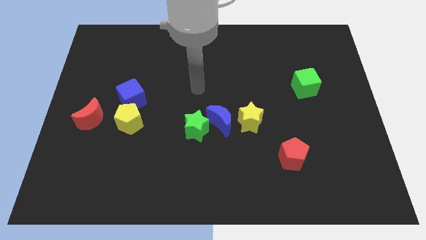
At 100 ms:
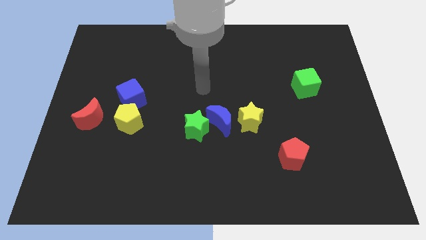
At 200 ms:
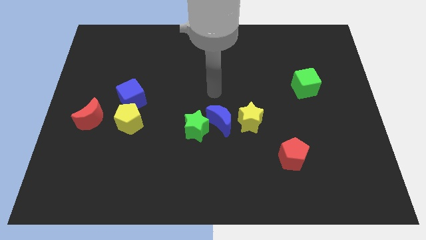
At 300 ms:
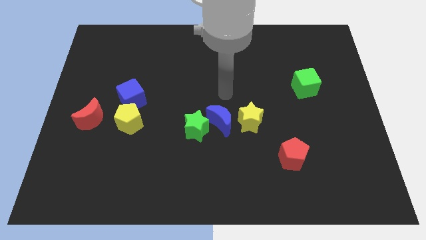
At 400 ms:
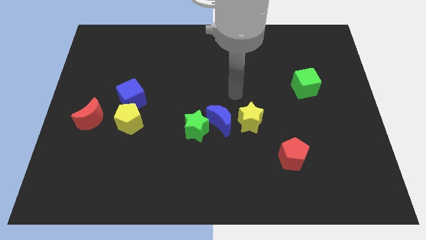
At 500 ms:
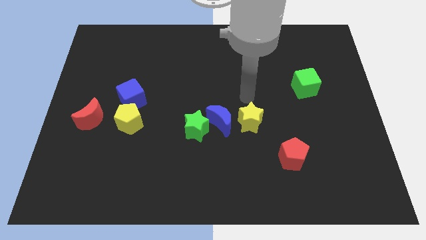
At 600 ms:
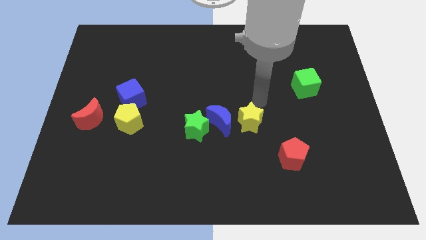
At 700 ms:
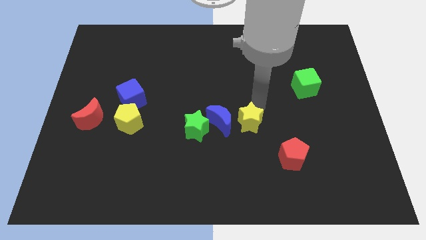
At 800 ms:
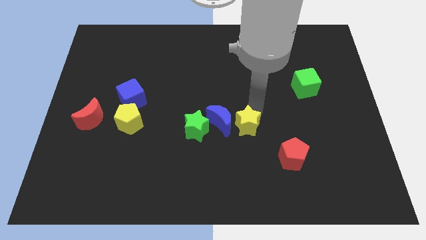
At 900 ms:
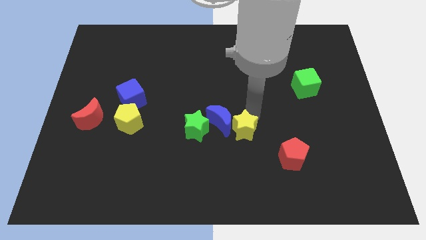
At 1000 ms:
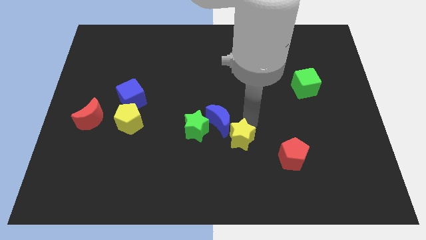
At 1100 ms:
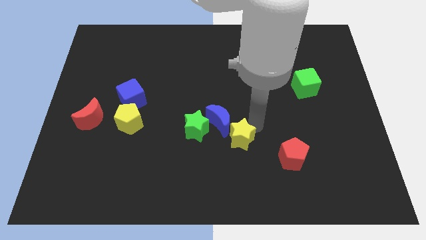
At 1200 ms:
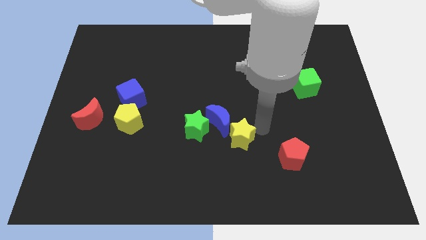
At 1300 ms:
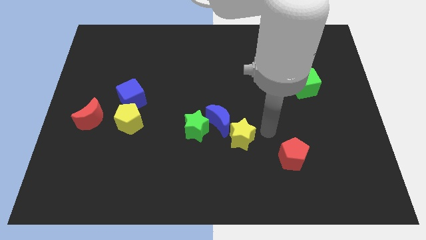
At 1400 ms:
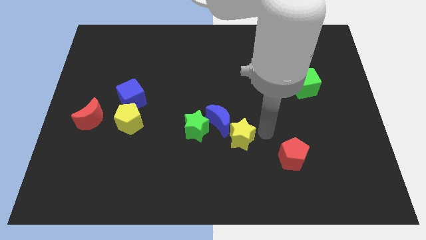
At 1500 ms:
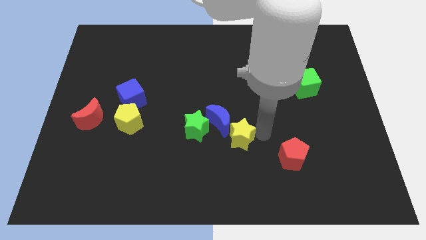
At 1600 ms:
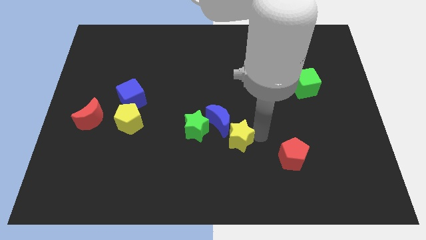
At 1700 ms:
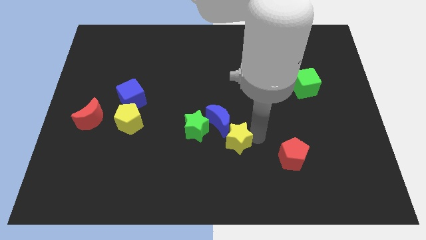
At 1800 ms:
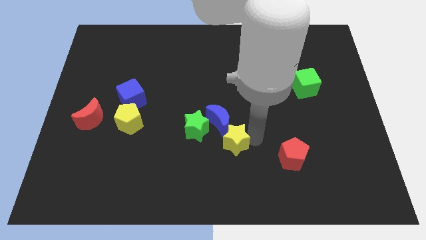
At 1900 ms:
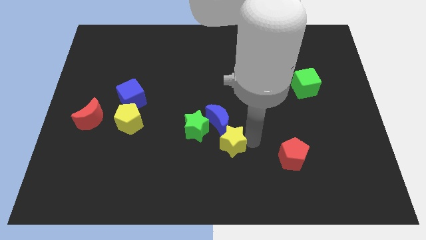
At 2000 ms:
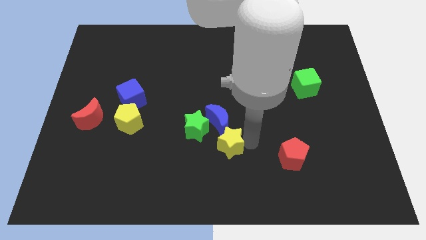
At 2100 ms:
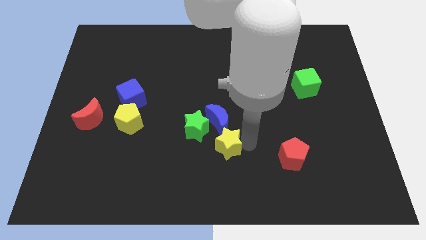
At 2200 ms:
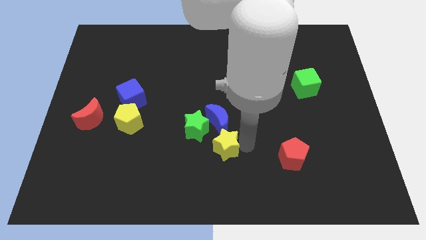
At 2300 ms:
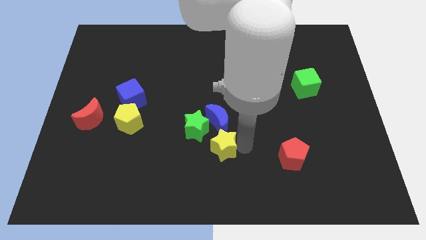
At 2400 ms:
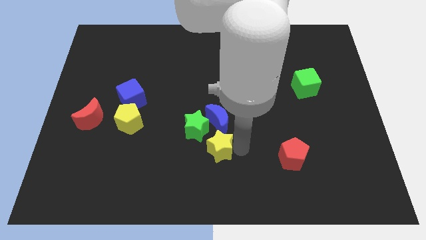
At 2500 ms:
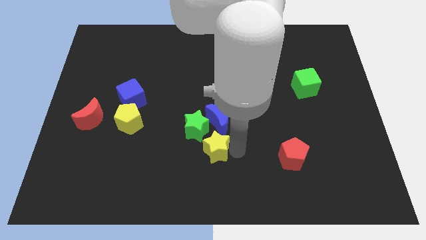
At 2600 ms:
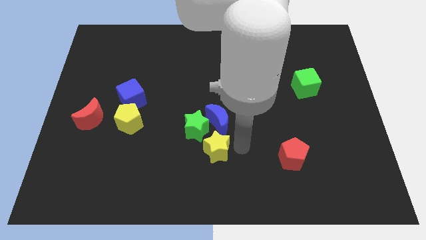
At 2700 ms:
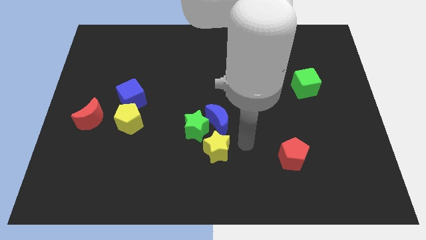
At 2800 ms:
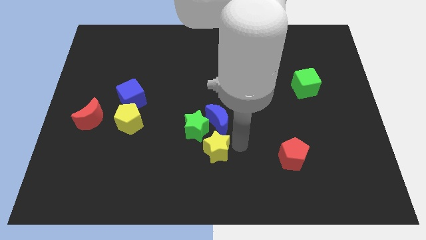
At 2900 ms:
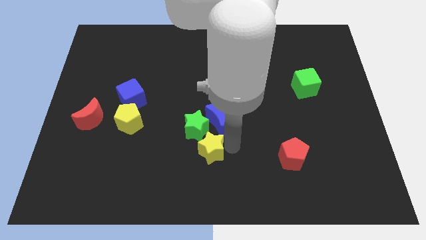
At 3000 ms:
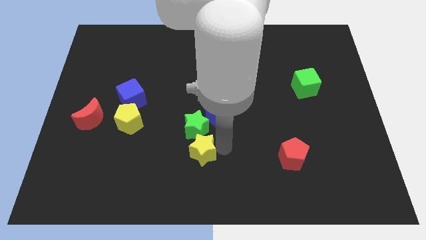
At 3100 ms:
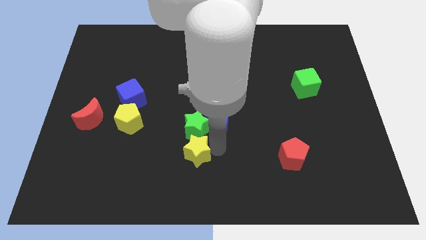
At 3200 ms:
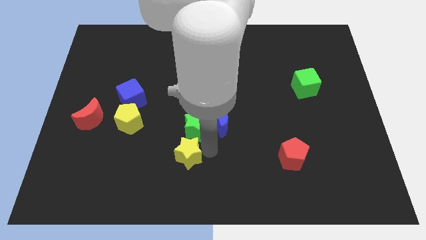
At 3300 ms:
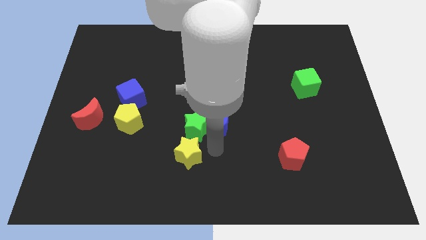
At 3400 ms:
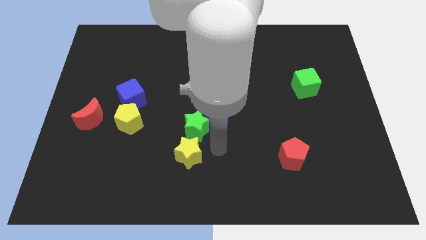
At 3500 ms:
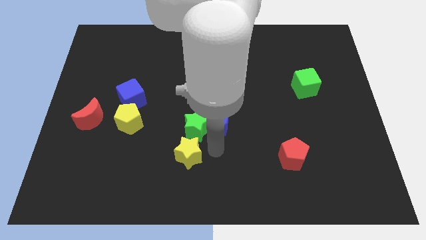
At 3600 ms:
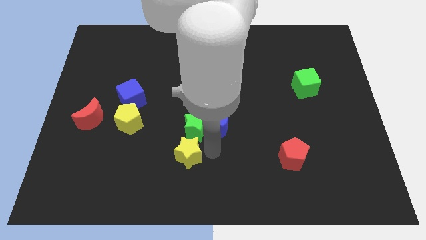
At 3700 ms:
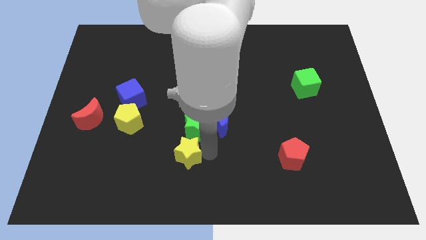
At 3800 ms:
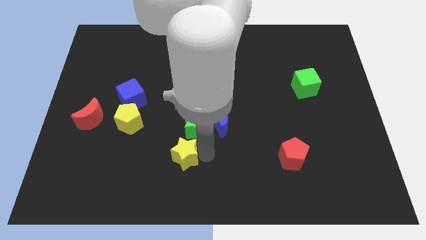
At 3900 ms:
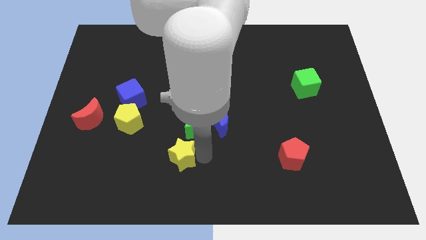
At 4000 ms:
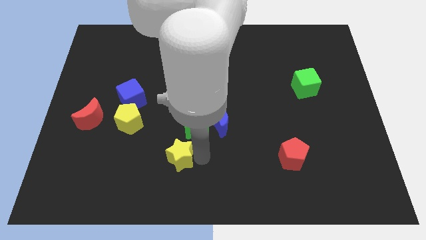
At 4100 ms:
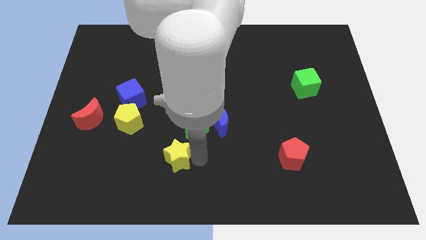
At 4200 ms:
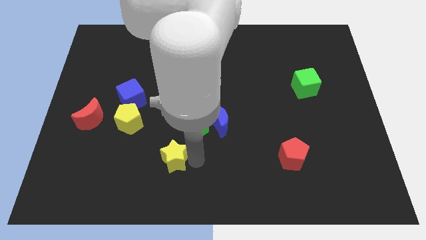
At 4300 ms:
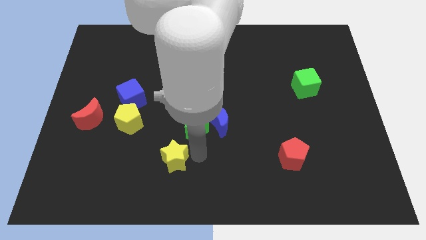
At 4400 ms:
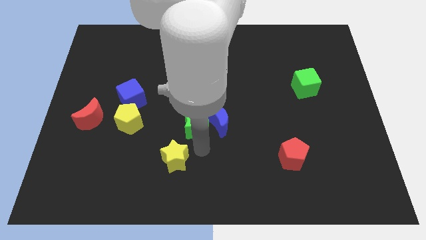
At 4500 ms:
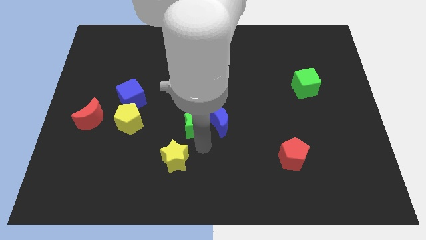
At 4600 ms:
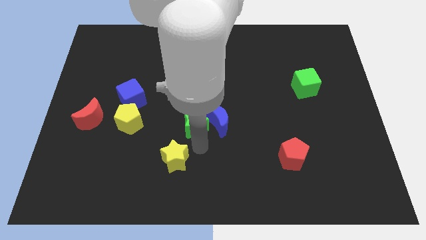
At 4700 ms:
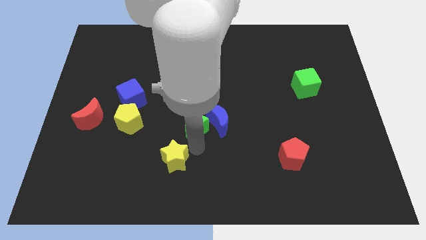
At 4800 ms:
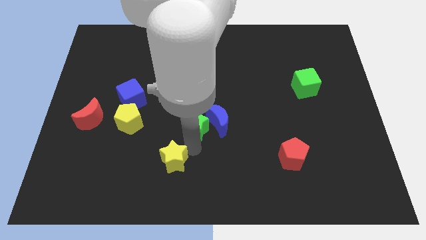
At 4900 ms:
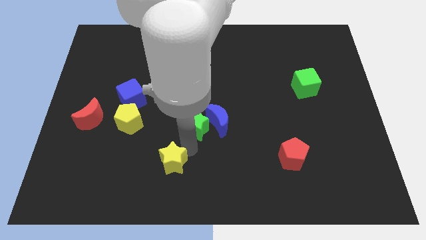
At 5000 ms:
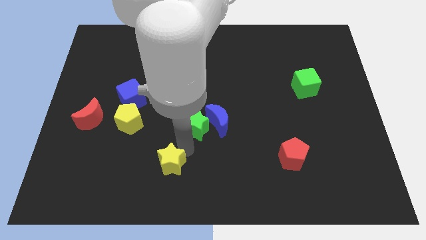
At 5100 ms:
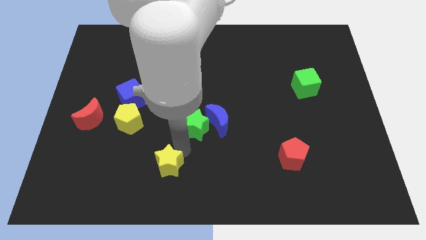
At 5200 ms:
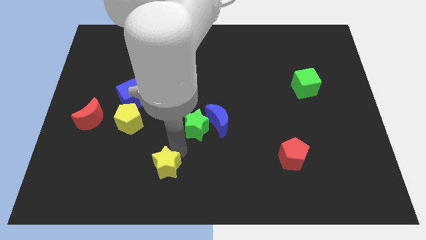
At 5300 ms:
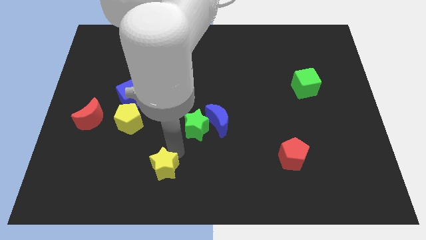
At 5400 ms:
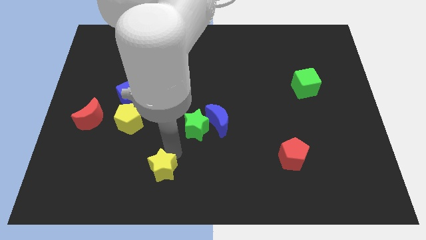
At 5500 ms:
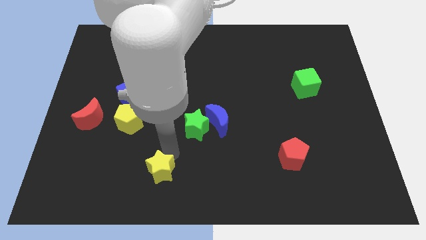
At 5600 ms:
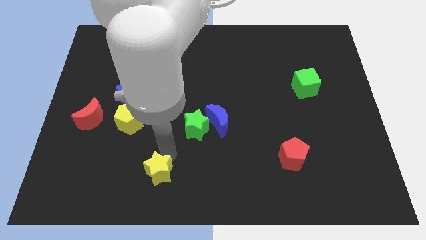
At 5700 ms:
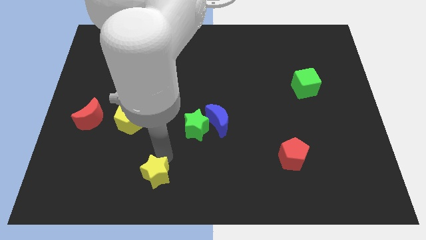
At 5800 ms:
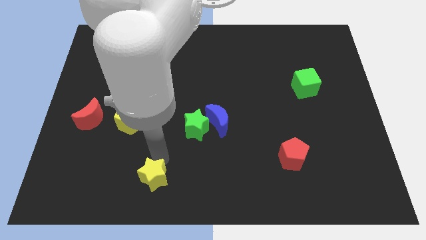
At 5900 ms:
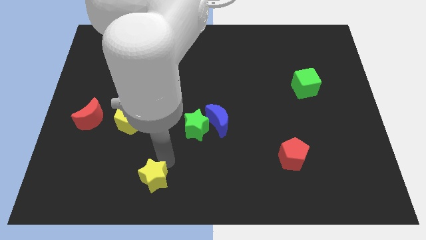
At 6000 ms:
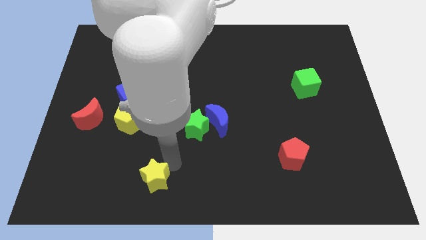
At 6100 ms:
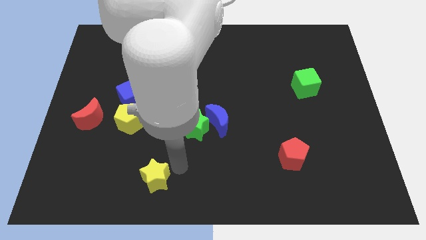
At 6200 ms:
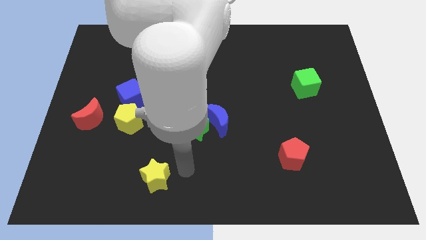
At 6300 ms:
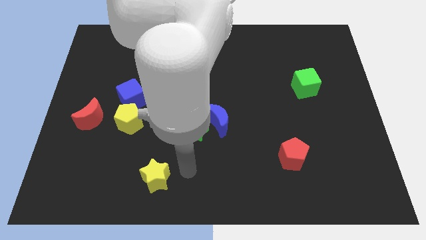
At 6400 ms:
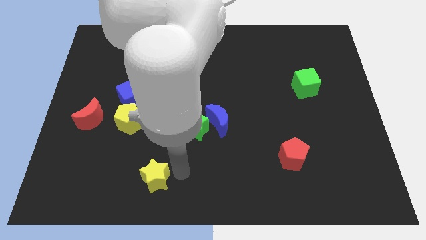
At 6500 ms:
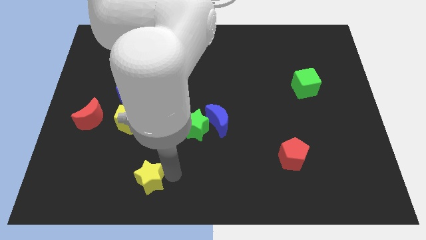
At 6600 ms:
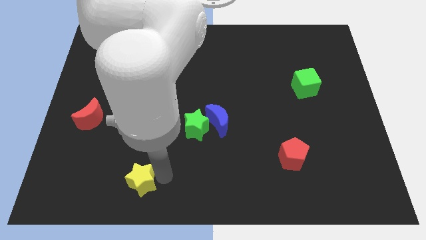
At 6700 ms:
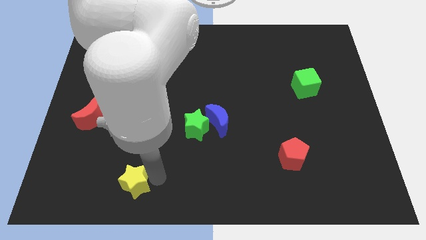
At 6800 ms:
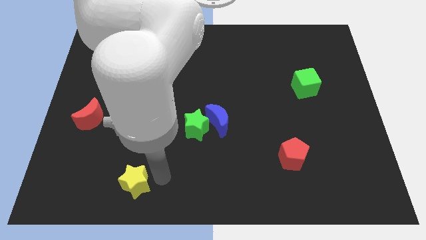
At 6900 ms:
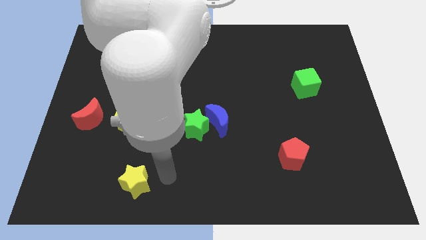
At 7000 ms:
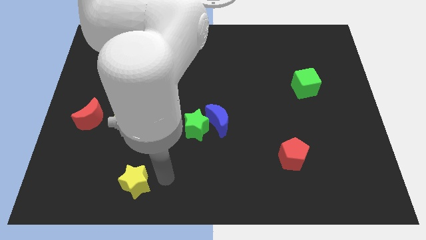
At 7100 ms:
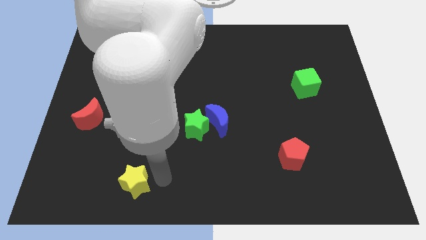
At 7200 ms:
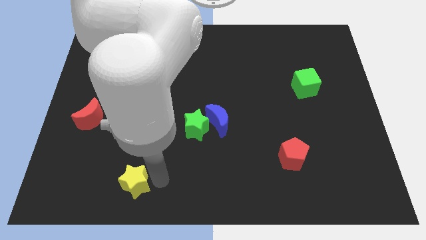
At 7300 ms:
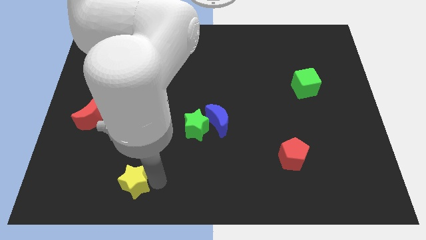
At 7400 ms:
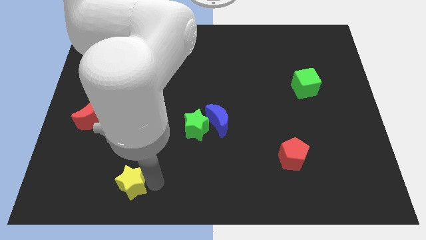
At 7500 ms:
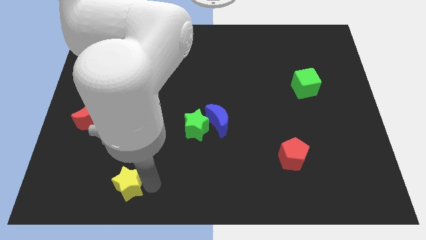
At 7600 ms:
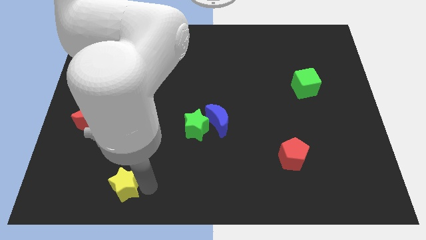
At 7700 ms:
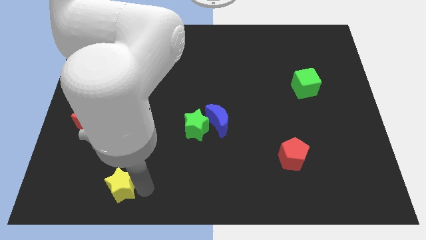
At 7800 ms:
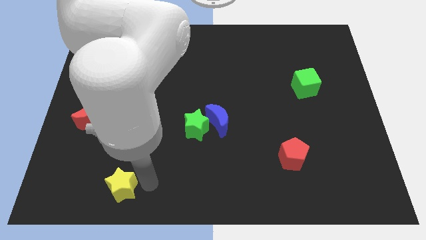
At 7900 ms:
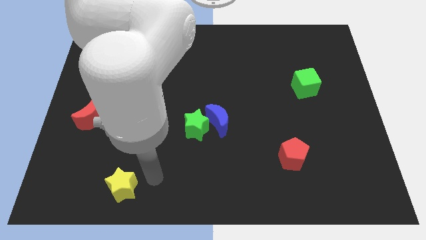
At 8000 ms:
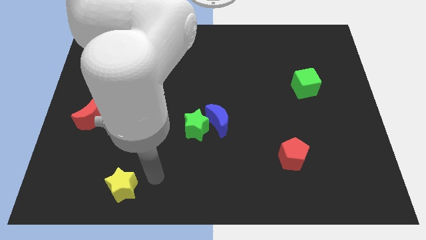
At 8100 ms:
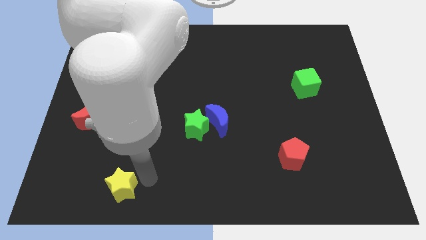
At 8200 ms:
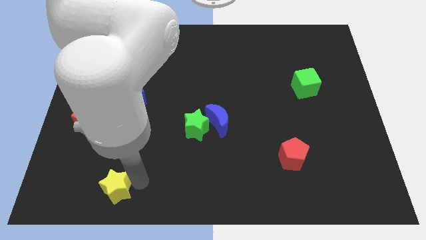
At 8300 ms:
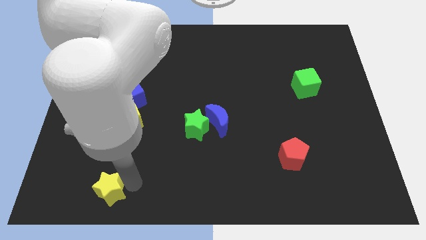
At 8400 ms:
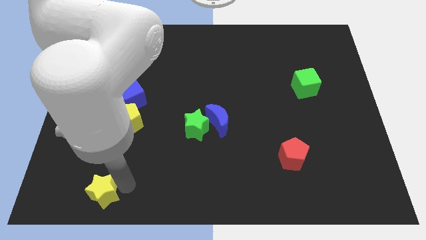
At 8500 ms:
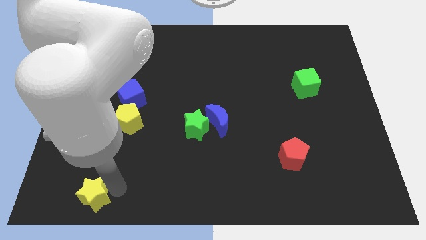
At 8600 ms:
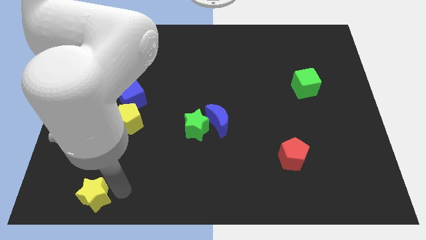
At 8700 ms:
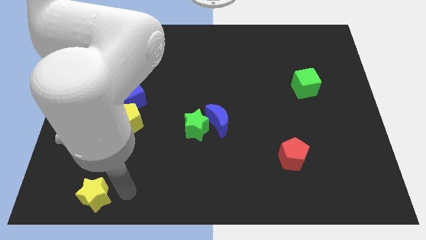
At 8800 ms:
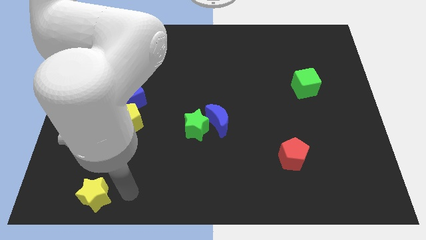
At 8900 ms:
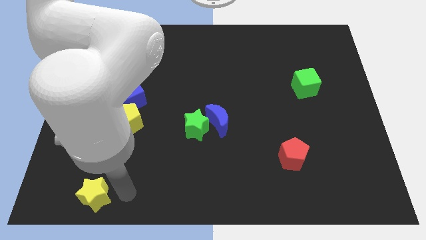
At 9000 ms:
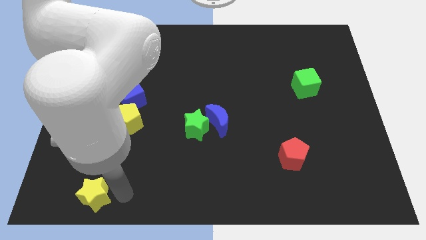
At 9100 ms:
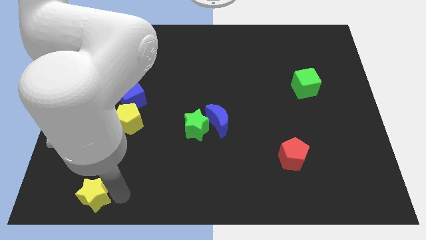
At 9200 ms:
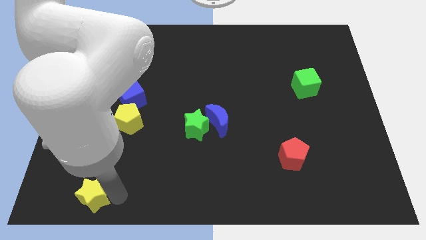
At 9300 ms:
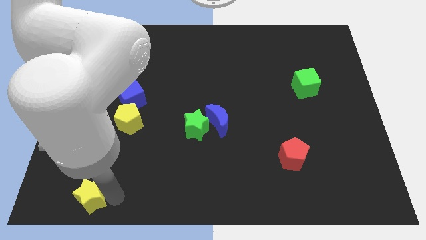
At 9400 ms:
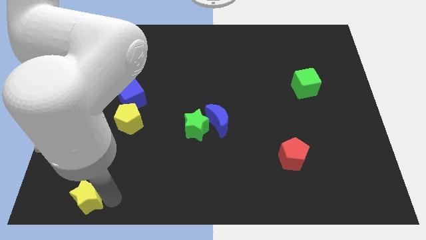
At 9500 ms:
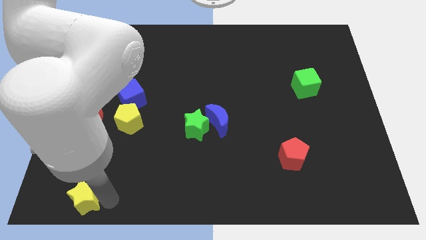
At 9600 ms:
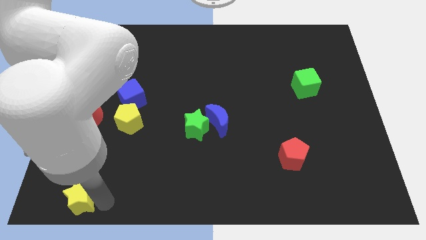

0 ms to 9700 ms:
slide the yellow star to the lower left corner
